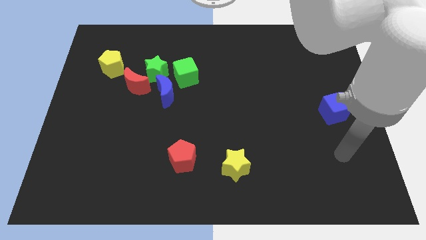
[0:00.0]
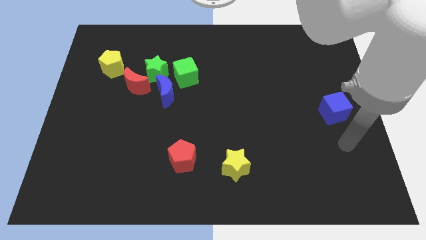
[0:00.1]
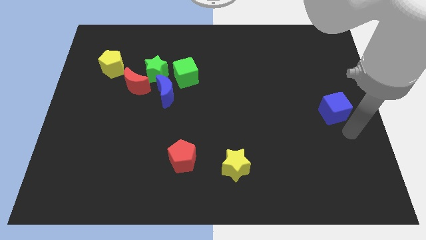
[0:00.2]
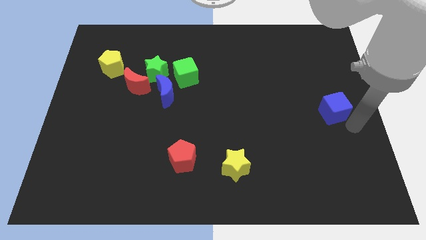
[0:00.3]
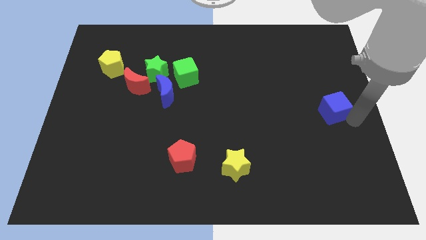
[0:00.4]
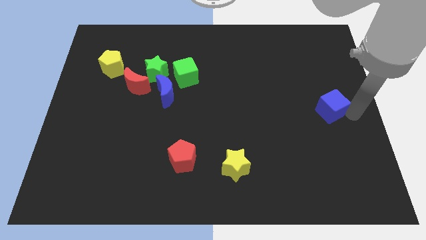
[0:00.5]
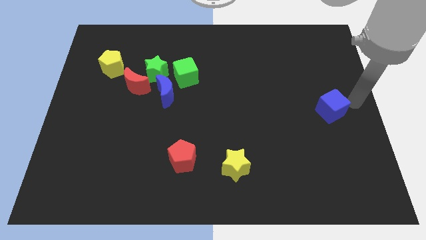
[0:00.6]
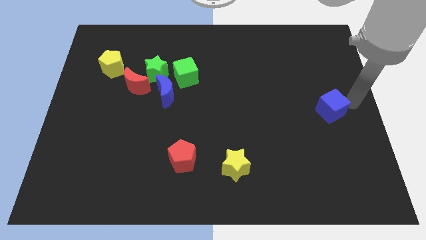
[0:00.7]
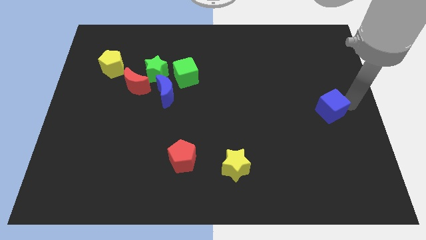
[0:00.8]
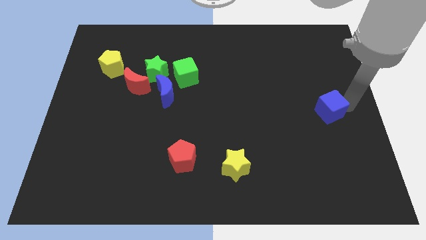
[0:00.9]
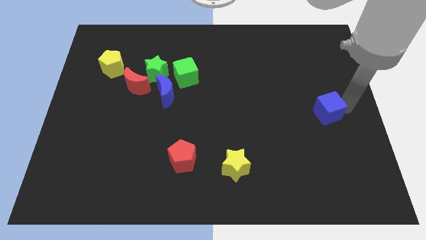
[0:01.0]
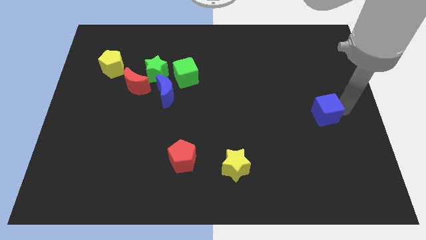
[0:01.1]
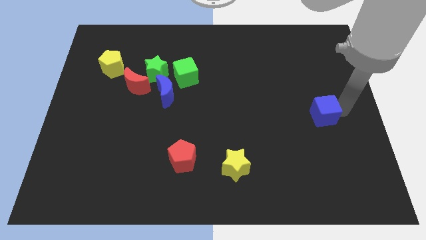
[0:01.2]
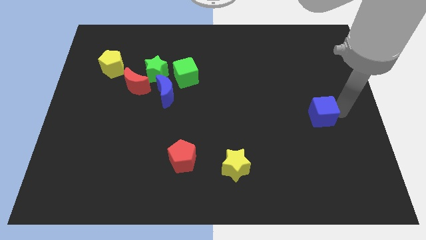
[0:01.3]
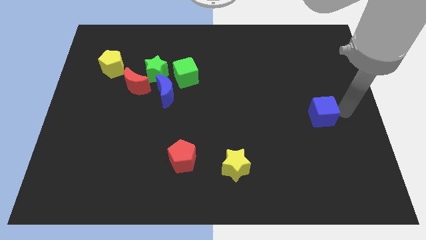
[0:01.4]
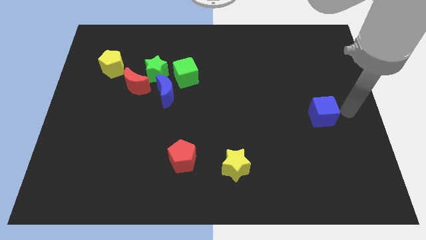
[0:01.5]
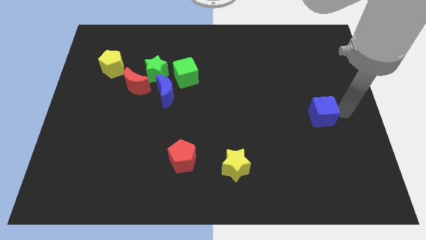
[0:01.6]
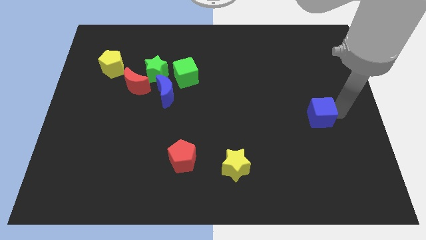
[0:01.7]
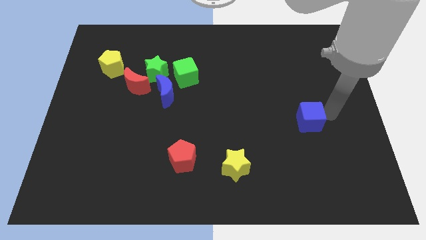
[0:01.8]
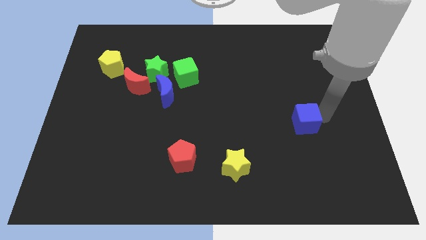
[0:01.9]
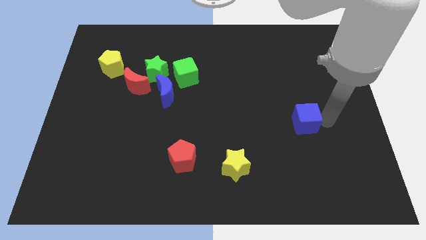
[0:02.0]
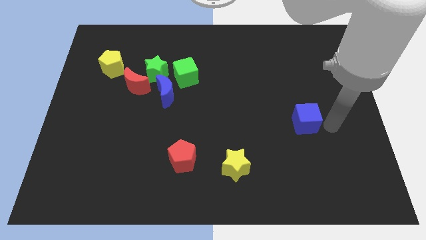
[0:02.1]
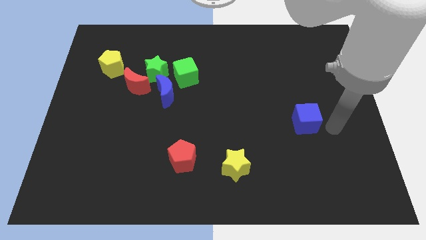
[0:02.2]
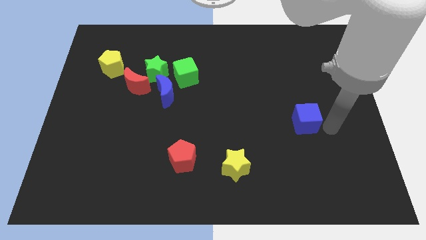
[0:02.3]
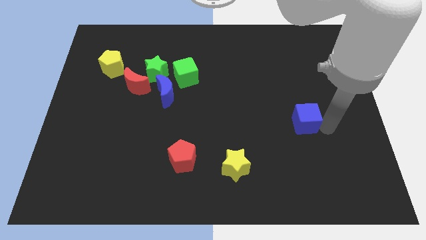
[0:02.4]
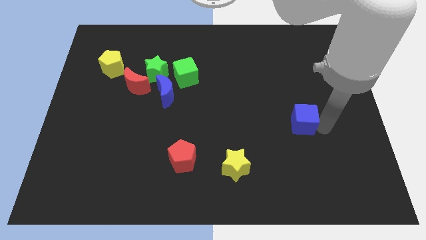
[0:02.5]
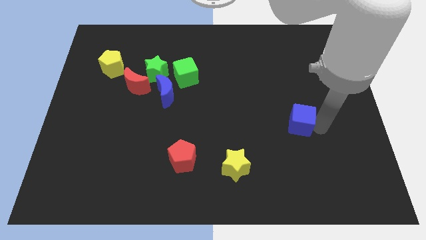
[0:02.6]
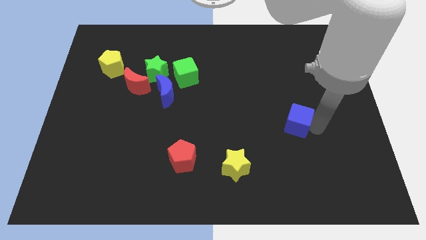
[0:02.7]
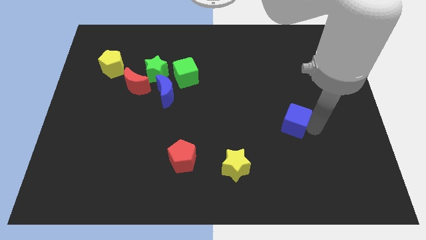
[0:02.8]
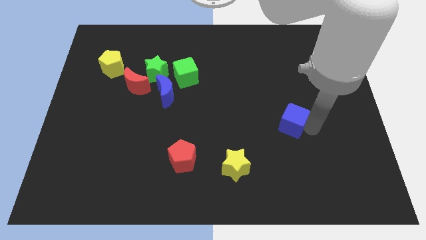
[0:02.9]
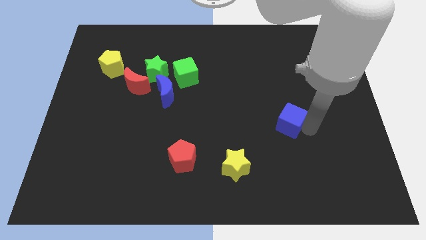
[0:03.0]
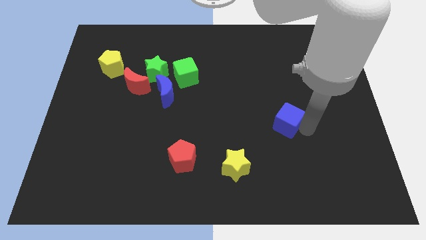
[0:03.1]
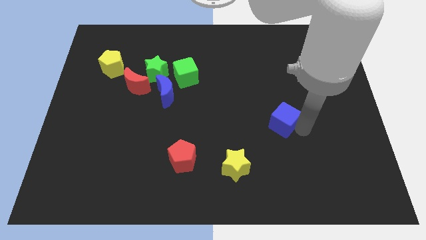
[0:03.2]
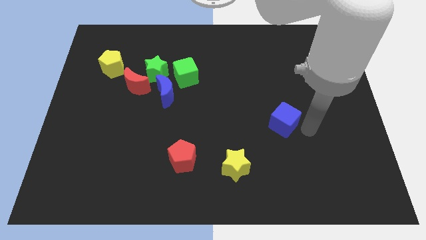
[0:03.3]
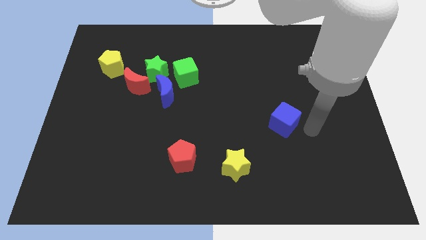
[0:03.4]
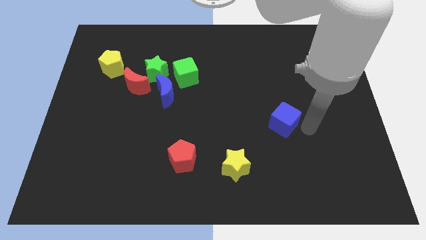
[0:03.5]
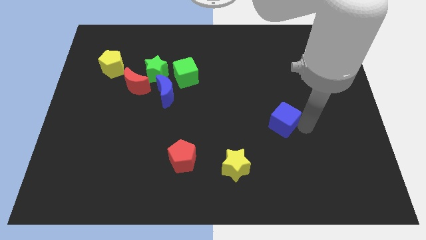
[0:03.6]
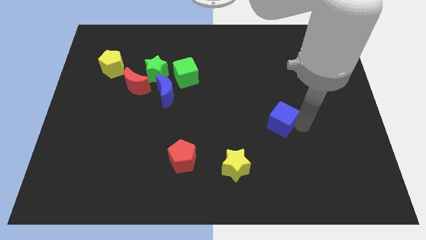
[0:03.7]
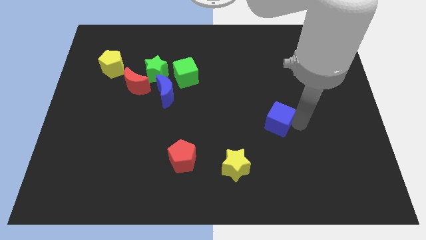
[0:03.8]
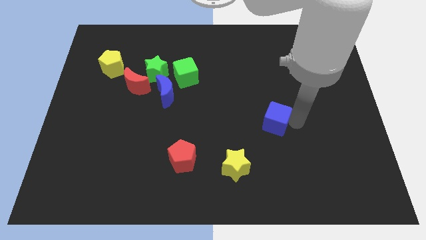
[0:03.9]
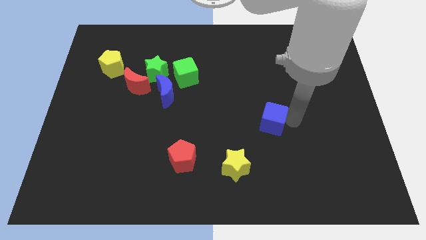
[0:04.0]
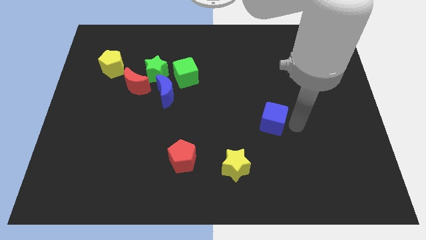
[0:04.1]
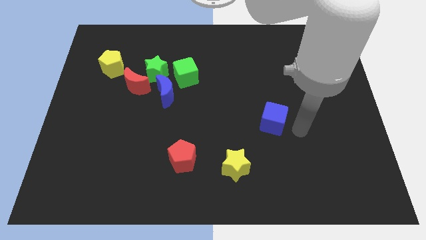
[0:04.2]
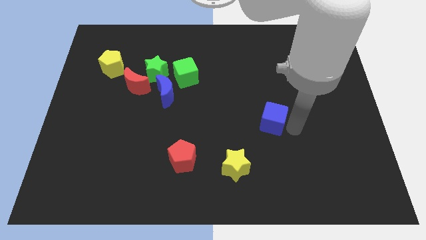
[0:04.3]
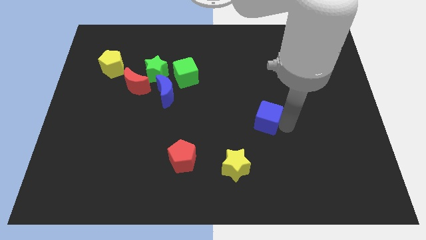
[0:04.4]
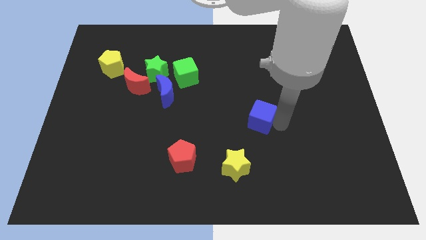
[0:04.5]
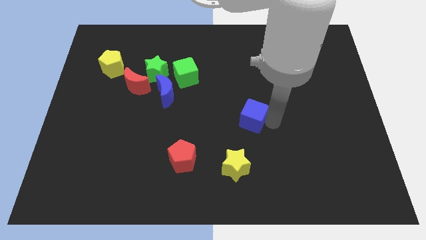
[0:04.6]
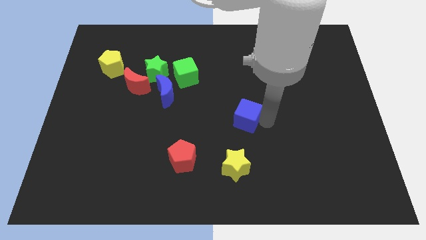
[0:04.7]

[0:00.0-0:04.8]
slide the blue cube left

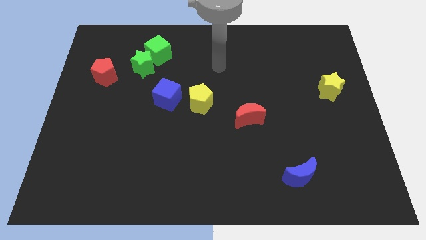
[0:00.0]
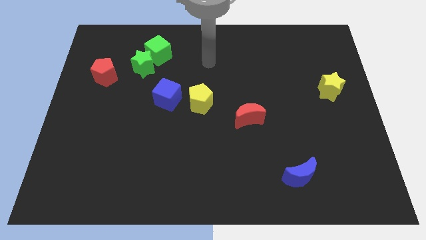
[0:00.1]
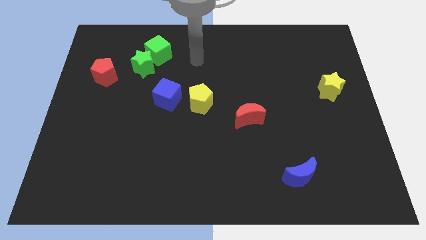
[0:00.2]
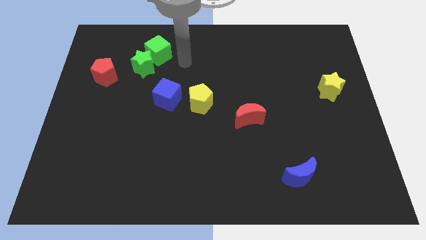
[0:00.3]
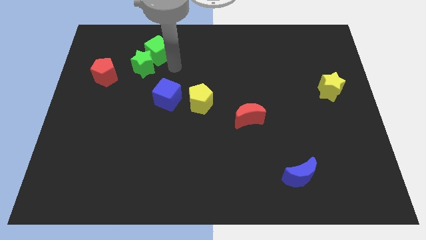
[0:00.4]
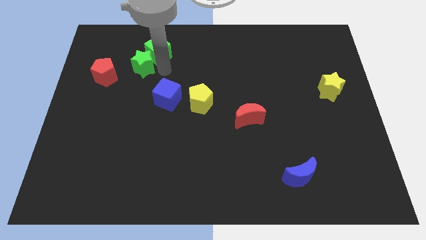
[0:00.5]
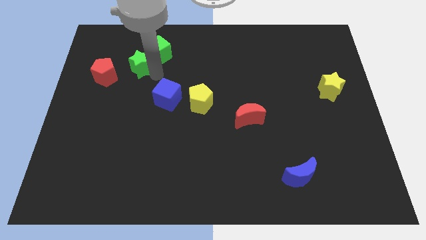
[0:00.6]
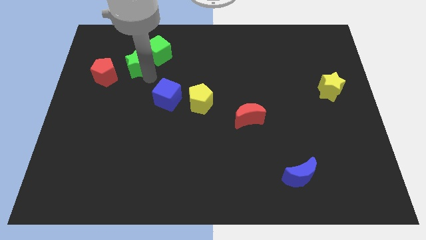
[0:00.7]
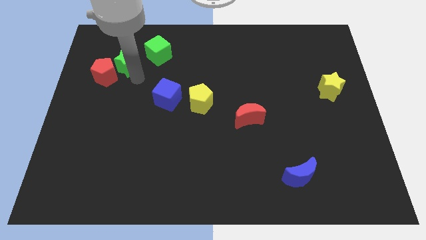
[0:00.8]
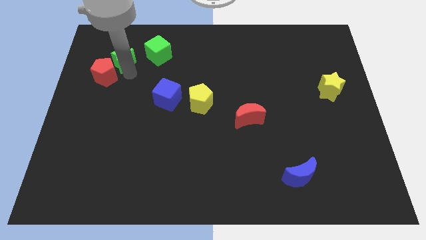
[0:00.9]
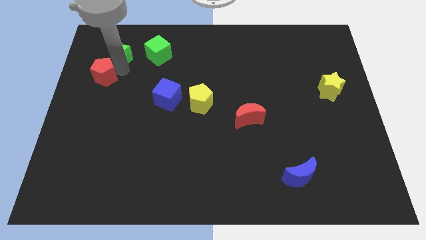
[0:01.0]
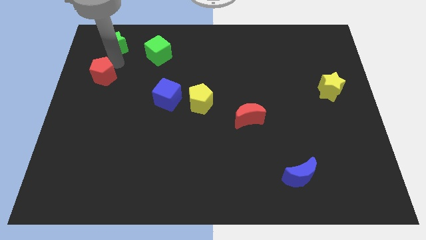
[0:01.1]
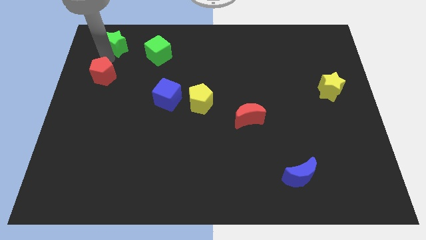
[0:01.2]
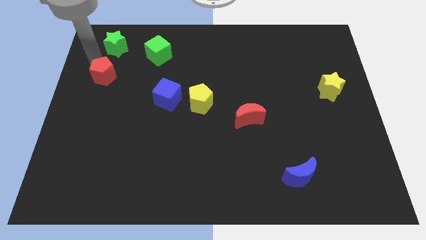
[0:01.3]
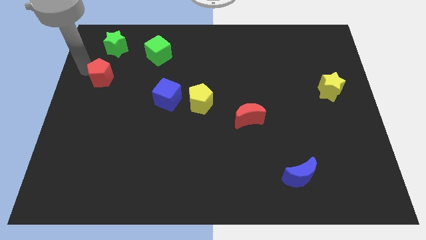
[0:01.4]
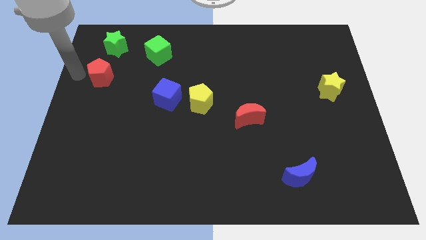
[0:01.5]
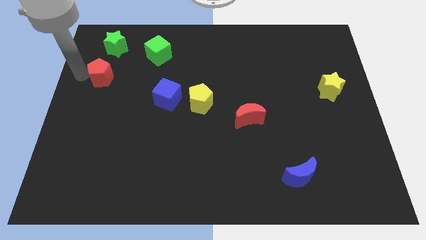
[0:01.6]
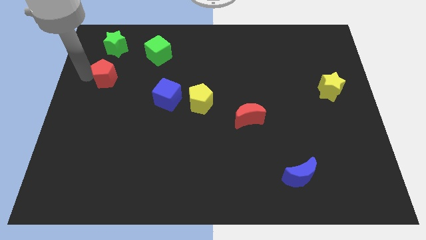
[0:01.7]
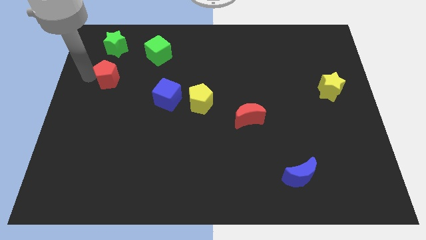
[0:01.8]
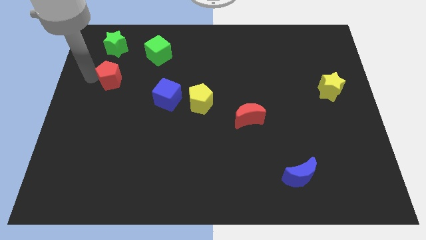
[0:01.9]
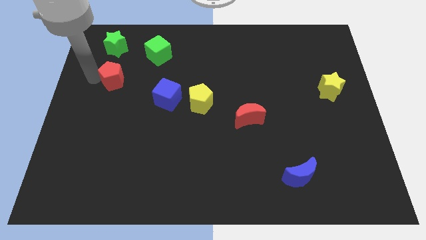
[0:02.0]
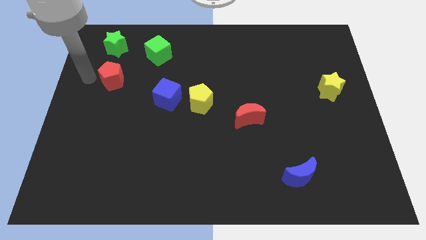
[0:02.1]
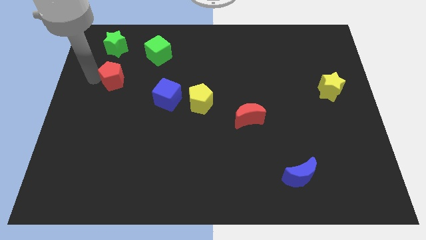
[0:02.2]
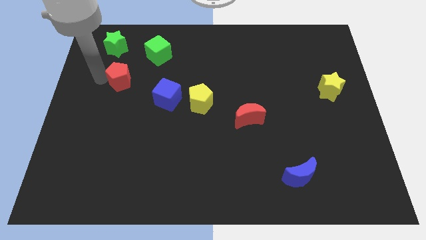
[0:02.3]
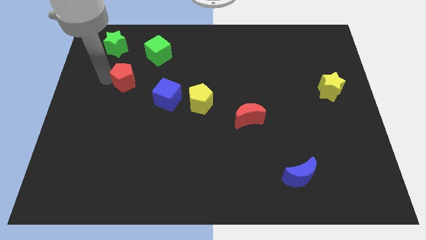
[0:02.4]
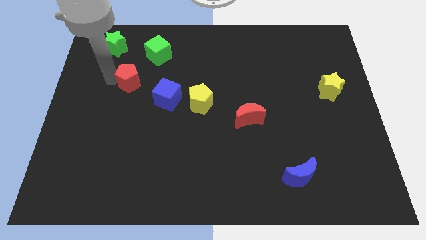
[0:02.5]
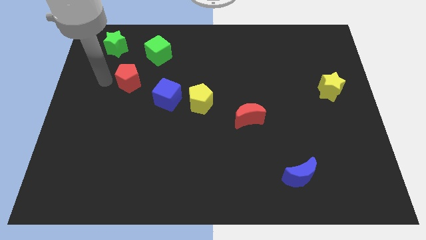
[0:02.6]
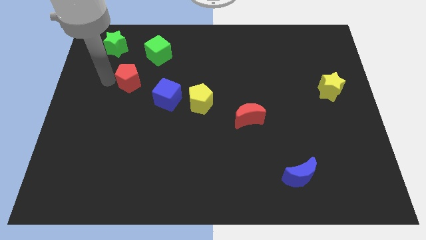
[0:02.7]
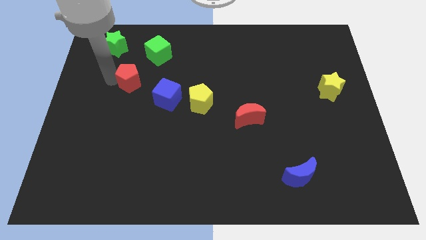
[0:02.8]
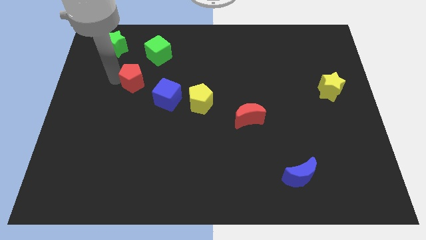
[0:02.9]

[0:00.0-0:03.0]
move the red pentagon a little to the right

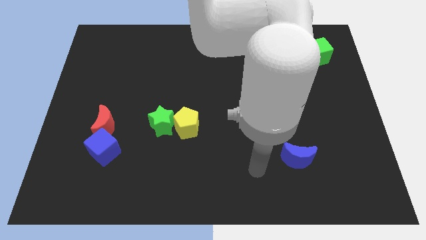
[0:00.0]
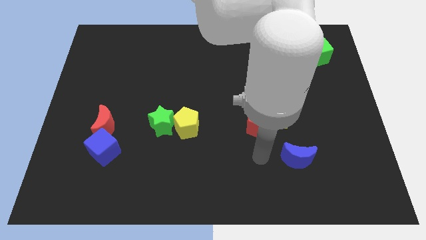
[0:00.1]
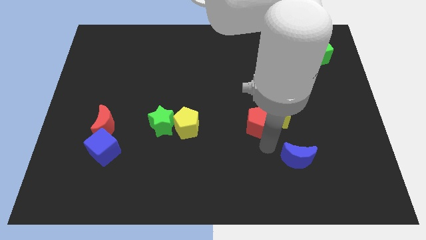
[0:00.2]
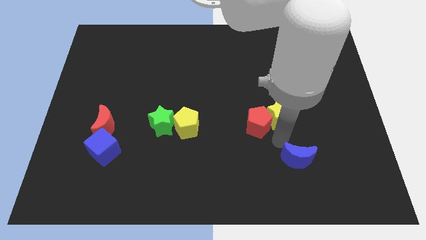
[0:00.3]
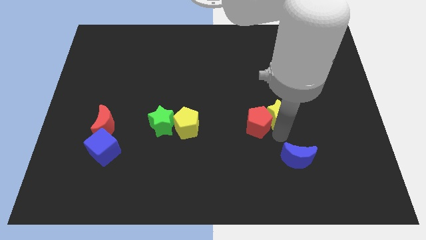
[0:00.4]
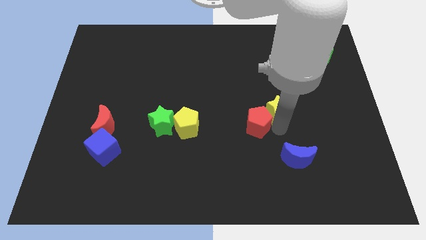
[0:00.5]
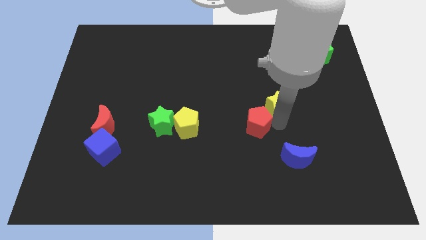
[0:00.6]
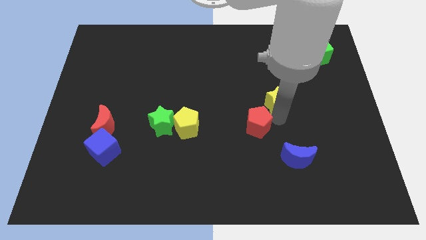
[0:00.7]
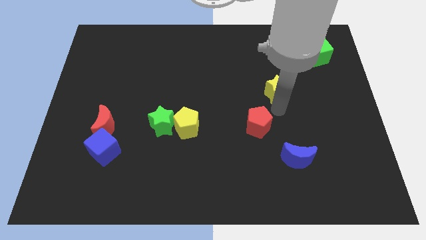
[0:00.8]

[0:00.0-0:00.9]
push the yellow star slightly up
